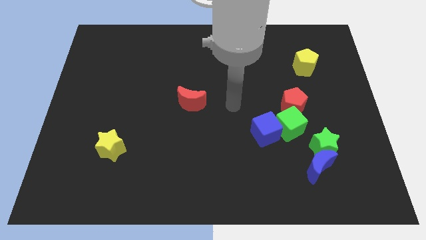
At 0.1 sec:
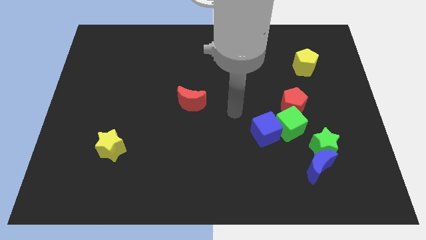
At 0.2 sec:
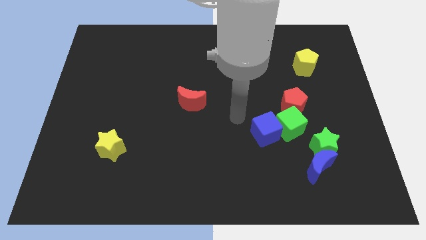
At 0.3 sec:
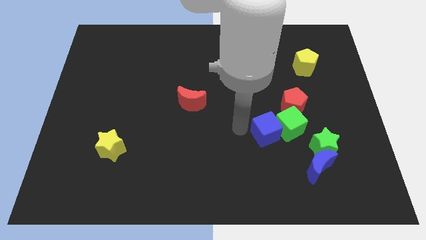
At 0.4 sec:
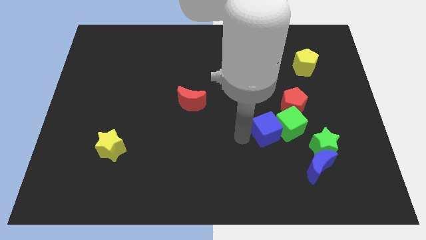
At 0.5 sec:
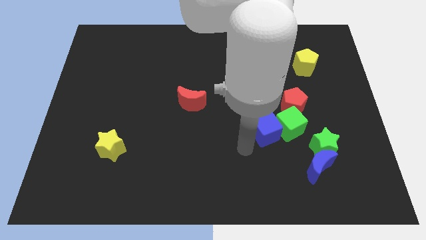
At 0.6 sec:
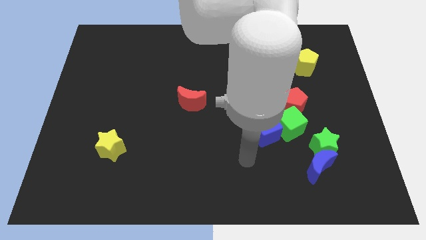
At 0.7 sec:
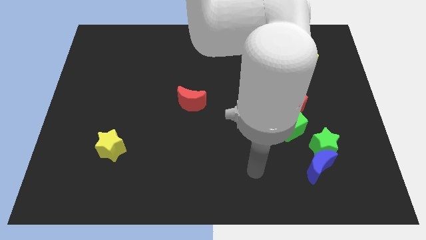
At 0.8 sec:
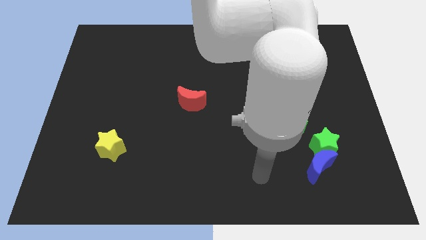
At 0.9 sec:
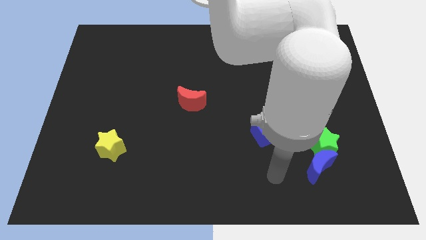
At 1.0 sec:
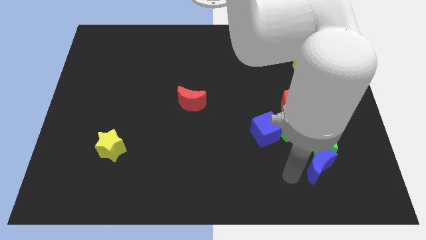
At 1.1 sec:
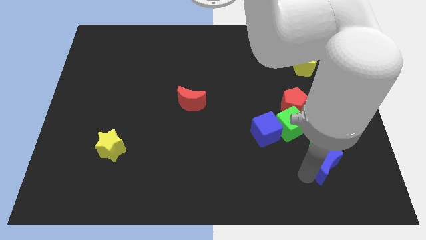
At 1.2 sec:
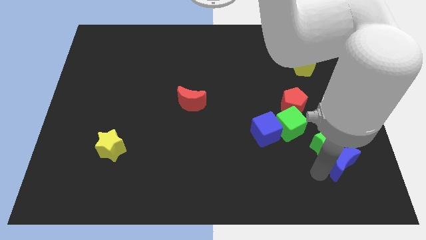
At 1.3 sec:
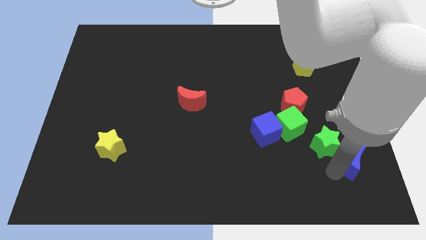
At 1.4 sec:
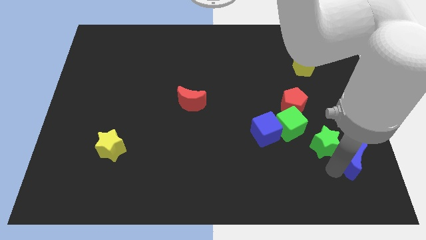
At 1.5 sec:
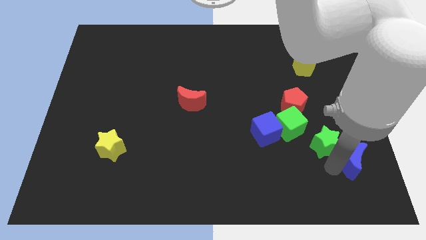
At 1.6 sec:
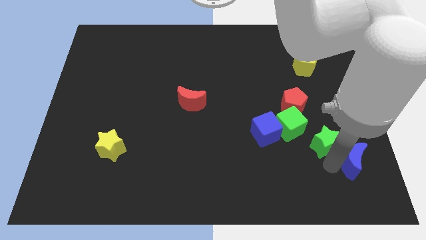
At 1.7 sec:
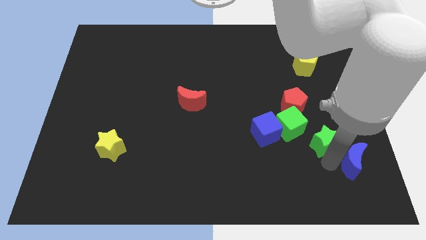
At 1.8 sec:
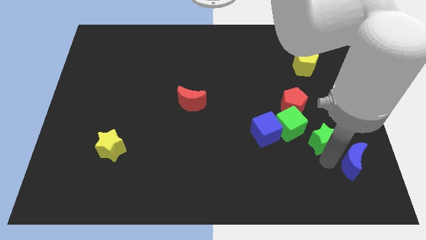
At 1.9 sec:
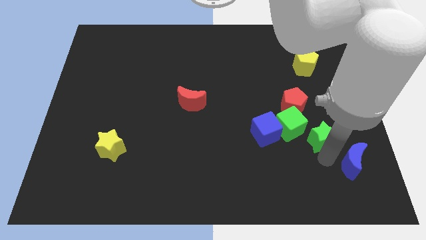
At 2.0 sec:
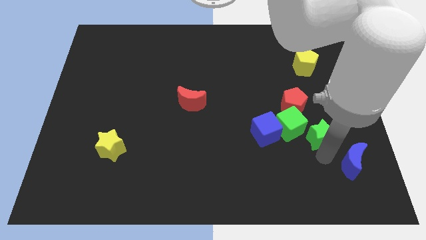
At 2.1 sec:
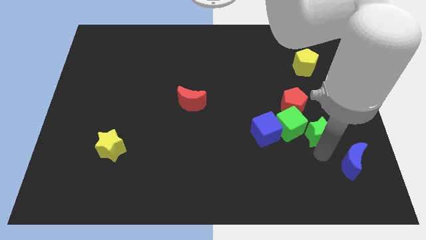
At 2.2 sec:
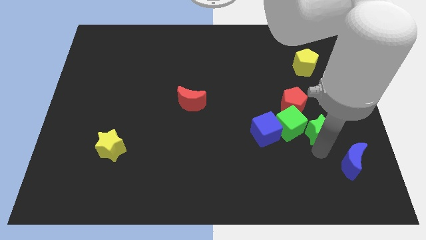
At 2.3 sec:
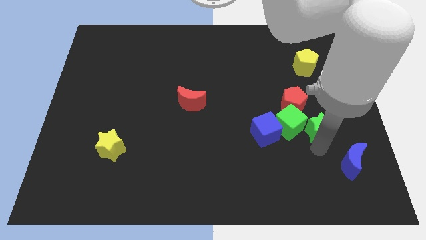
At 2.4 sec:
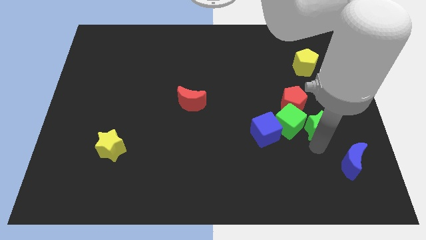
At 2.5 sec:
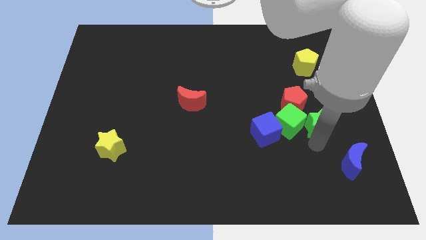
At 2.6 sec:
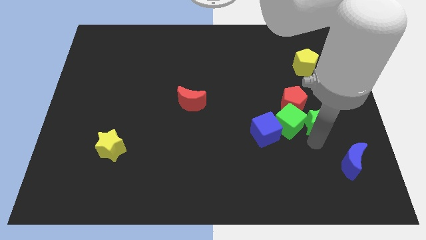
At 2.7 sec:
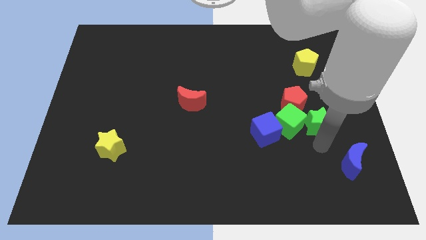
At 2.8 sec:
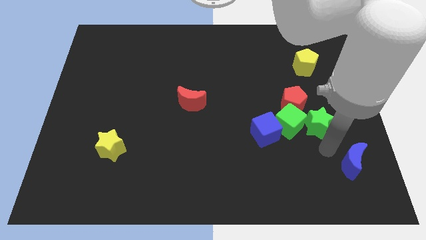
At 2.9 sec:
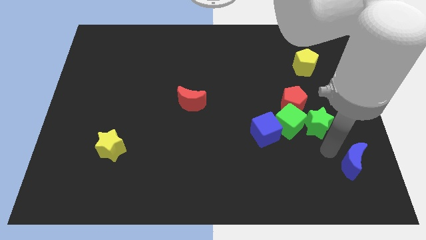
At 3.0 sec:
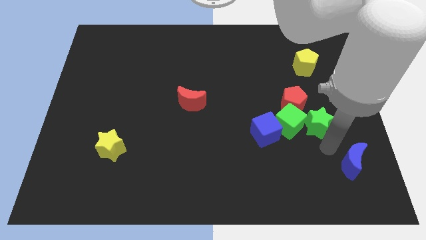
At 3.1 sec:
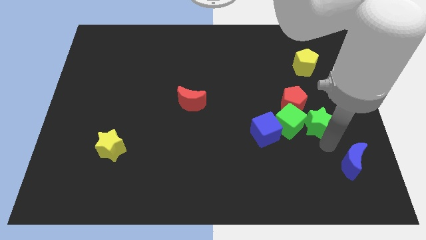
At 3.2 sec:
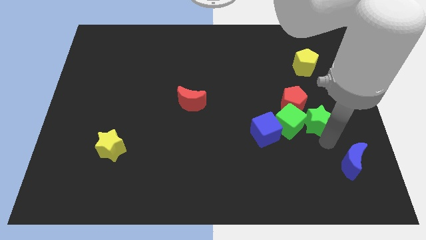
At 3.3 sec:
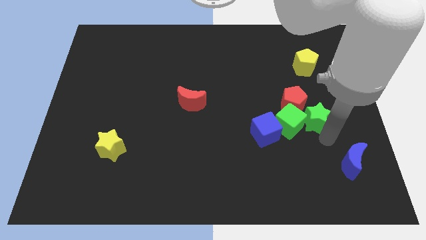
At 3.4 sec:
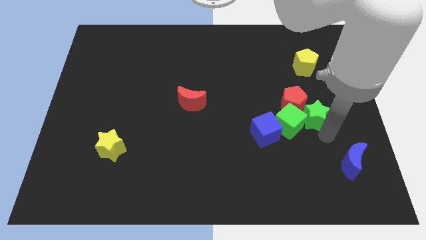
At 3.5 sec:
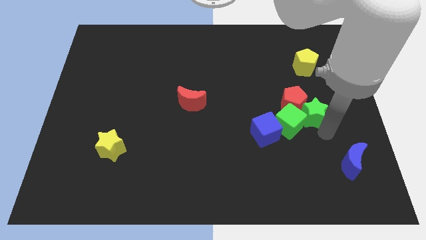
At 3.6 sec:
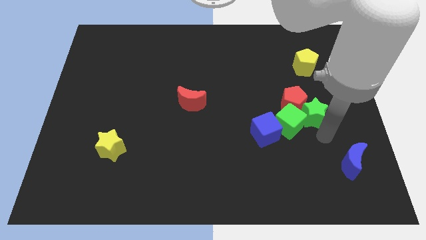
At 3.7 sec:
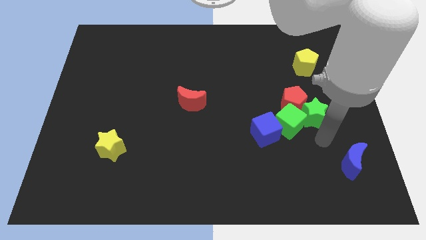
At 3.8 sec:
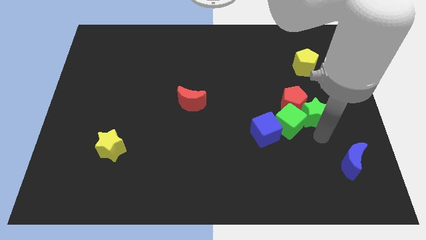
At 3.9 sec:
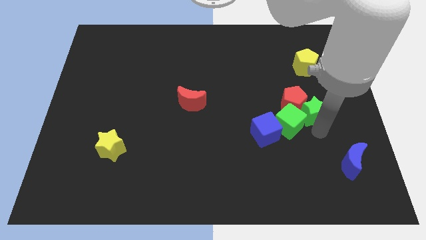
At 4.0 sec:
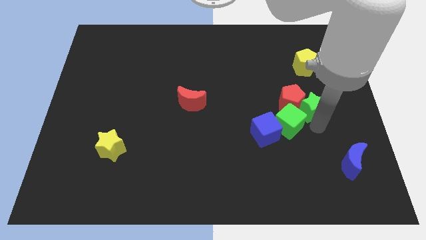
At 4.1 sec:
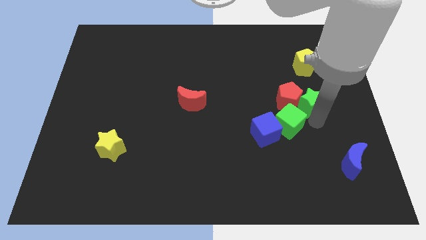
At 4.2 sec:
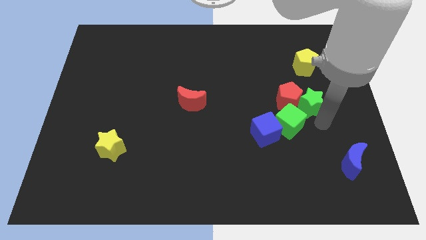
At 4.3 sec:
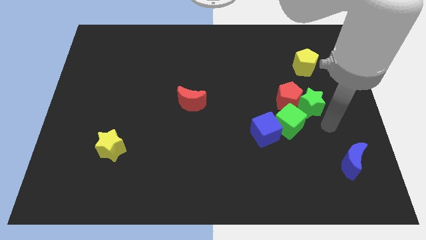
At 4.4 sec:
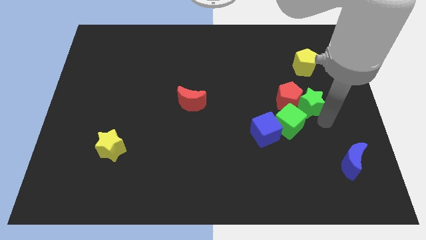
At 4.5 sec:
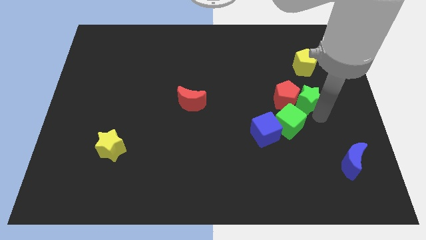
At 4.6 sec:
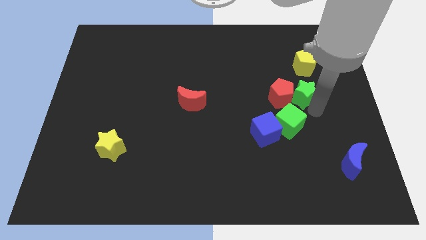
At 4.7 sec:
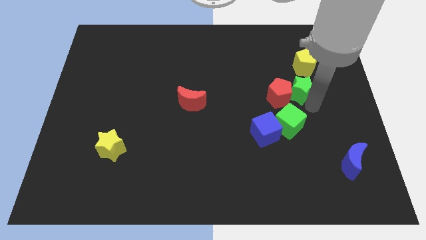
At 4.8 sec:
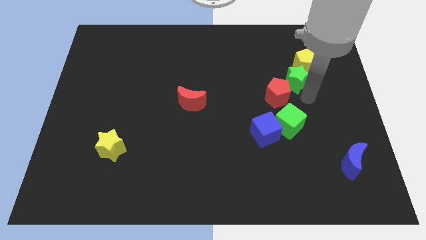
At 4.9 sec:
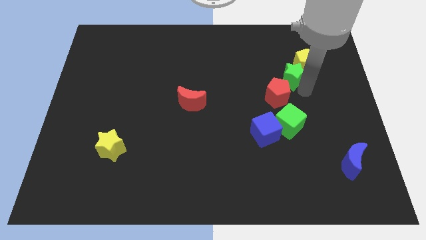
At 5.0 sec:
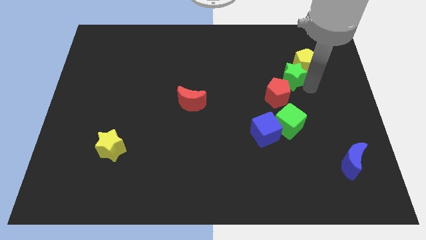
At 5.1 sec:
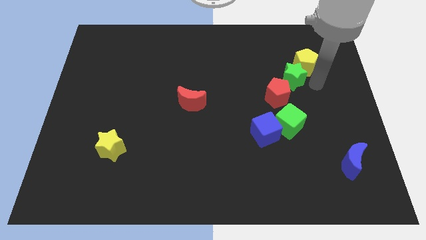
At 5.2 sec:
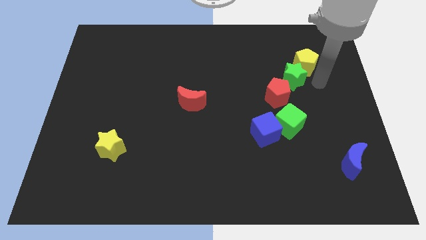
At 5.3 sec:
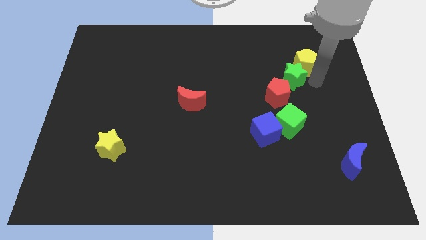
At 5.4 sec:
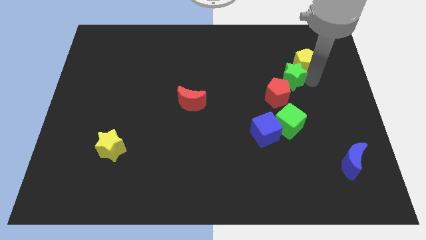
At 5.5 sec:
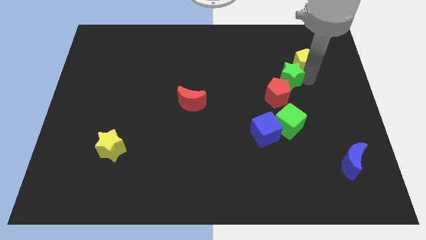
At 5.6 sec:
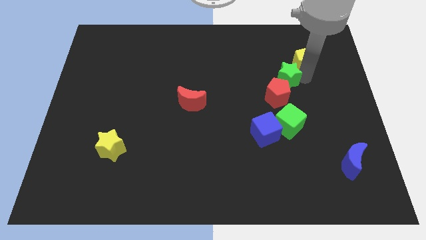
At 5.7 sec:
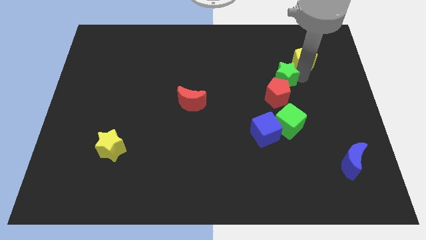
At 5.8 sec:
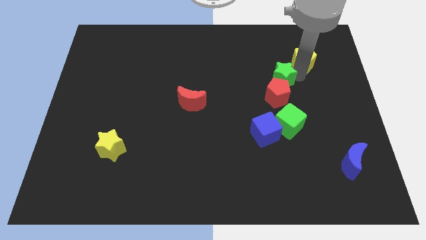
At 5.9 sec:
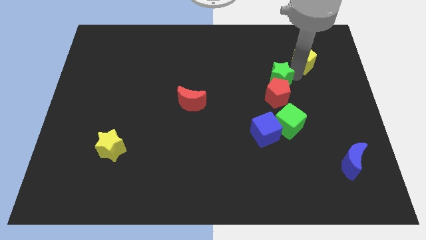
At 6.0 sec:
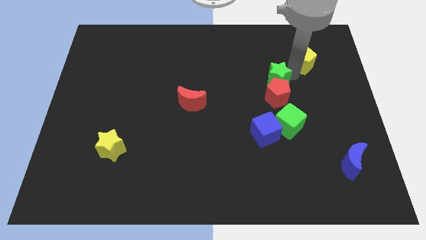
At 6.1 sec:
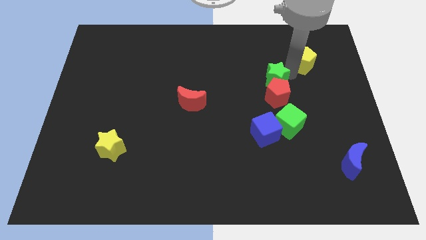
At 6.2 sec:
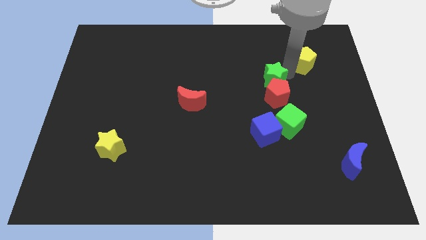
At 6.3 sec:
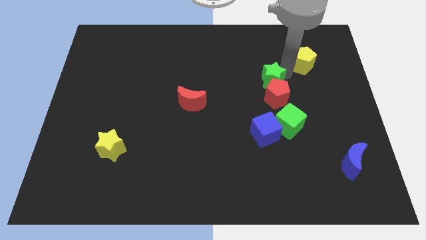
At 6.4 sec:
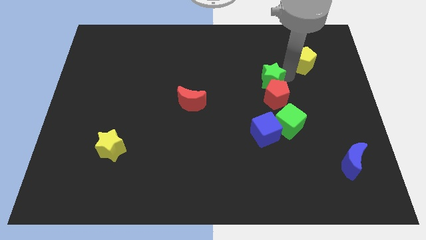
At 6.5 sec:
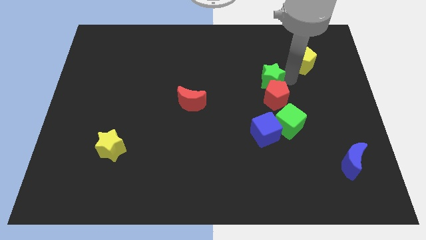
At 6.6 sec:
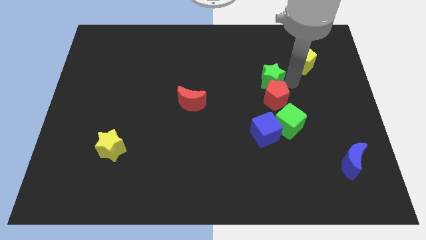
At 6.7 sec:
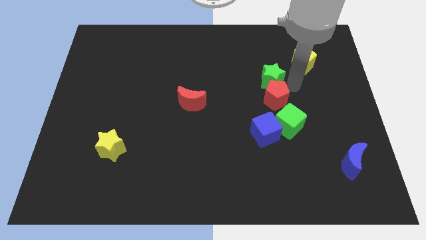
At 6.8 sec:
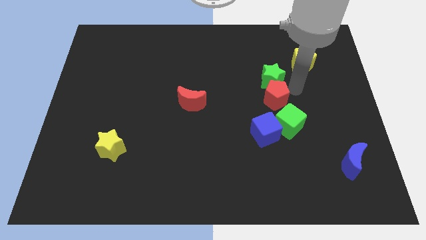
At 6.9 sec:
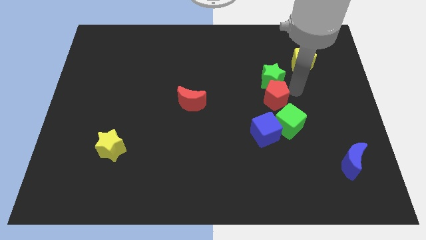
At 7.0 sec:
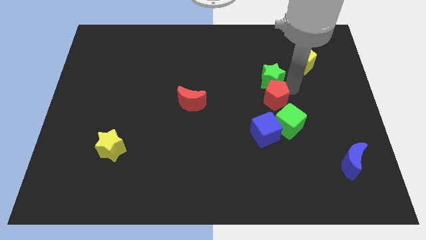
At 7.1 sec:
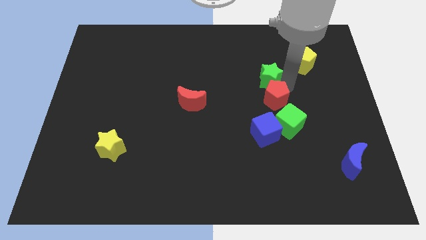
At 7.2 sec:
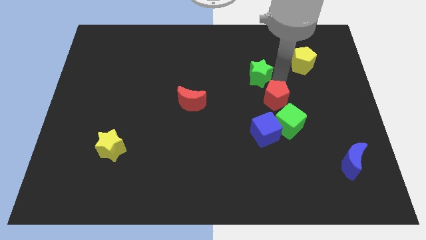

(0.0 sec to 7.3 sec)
slide the green star up and left diagonally

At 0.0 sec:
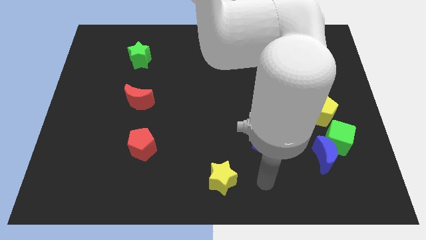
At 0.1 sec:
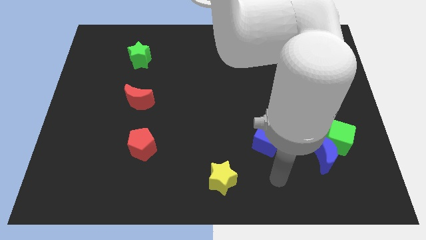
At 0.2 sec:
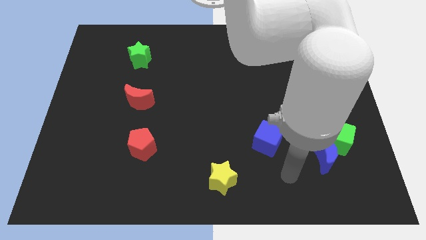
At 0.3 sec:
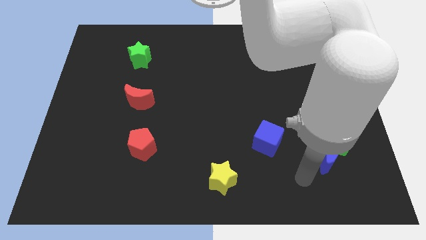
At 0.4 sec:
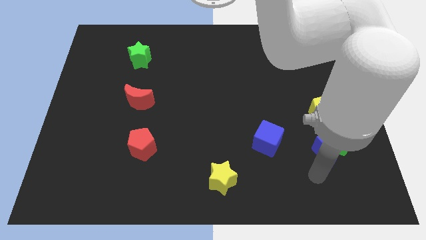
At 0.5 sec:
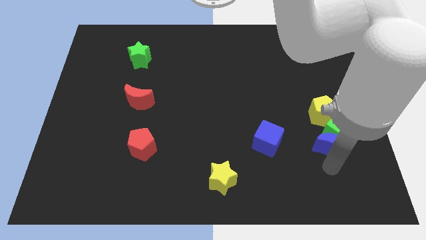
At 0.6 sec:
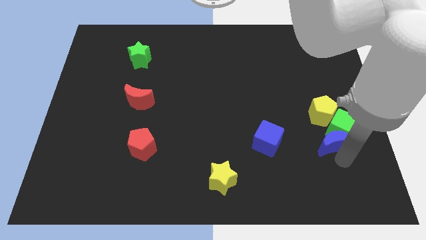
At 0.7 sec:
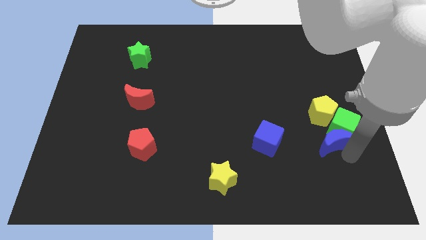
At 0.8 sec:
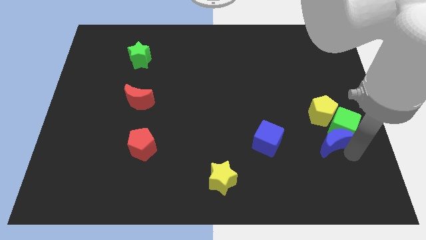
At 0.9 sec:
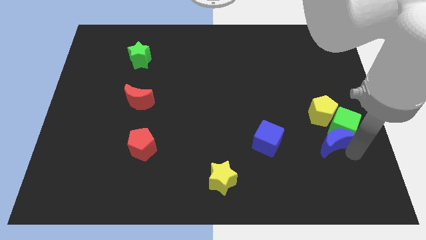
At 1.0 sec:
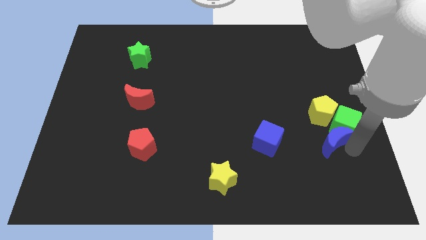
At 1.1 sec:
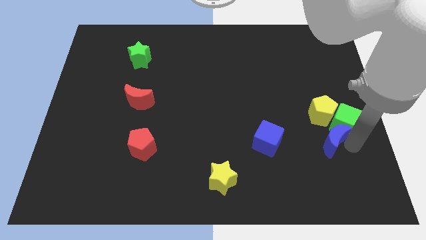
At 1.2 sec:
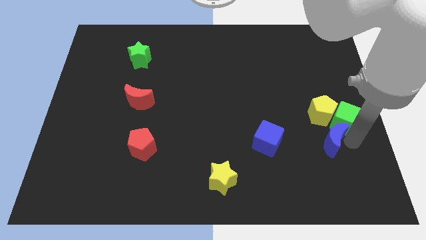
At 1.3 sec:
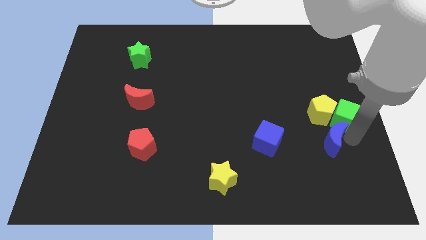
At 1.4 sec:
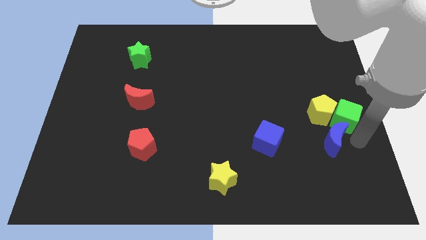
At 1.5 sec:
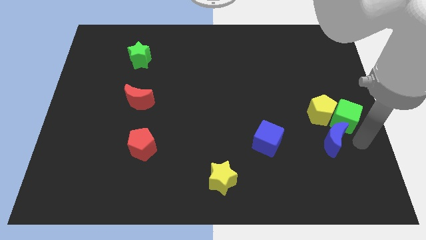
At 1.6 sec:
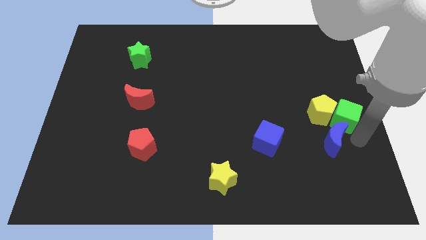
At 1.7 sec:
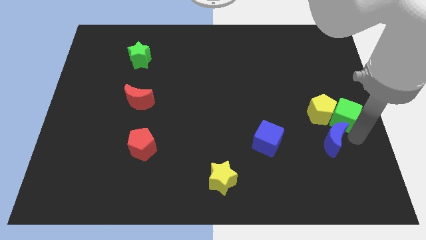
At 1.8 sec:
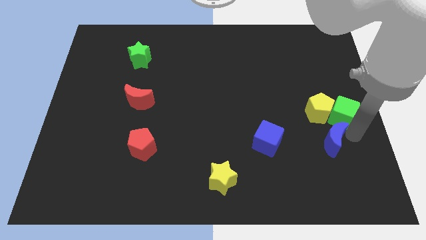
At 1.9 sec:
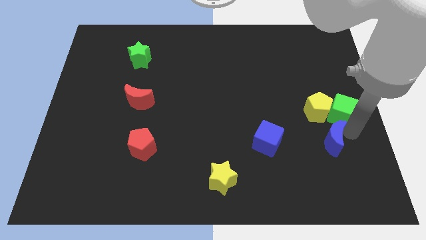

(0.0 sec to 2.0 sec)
push the green cube somewhat upwards
